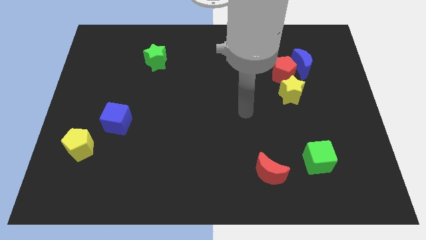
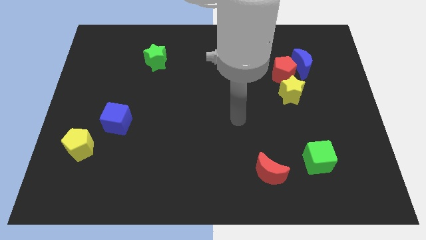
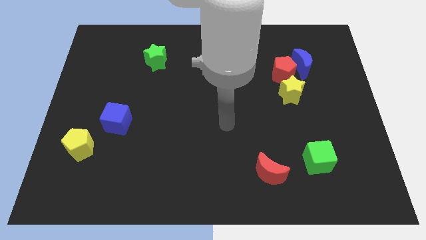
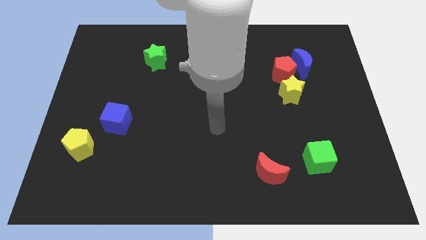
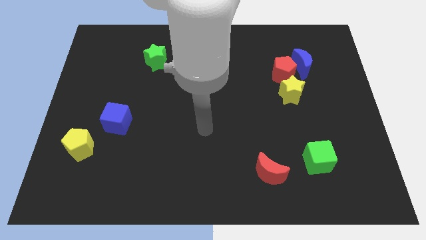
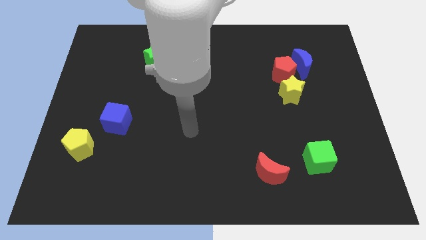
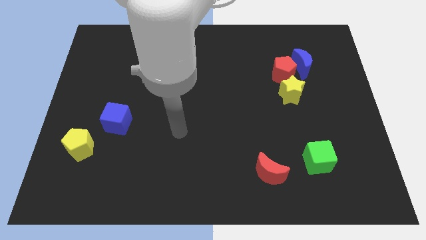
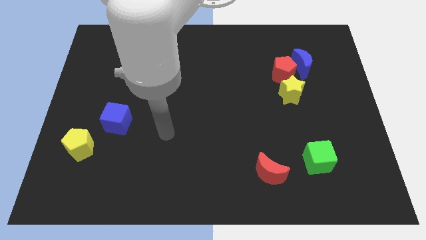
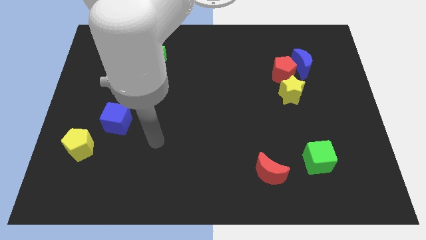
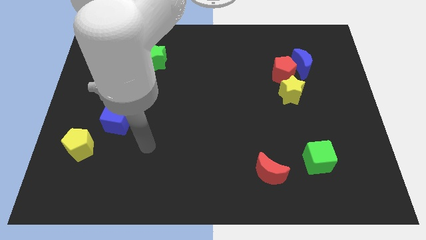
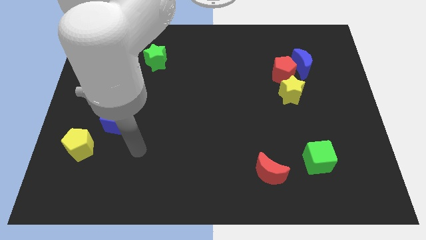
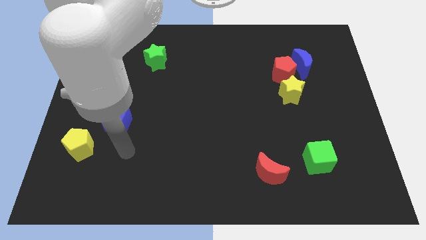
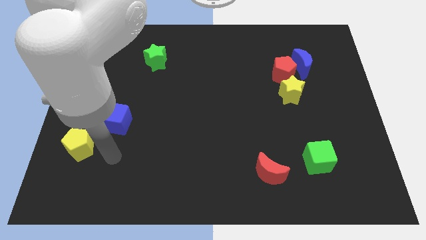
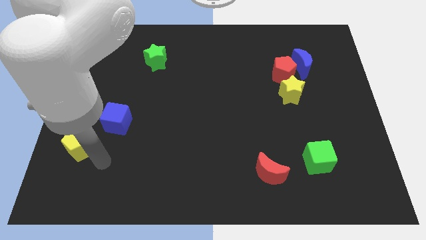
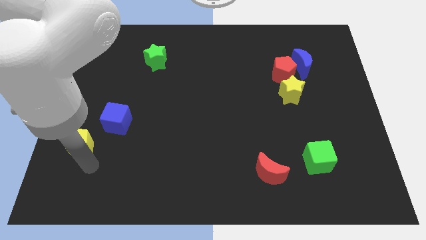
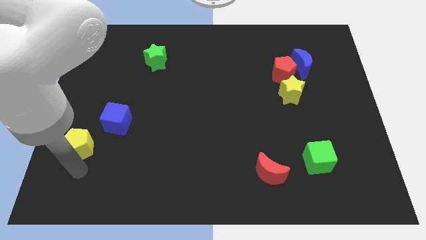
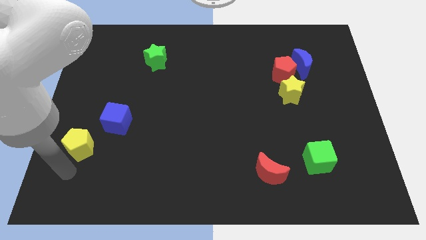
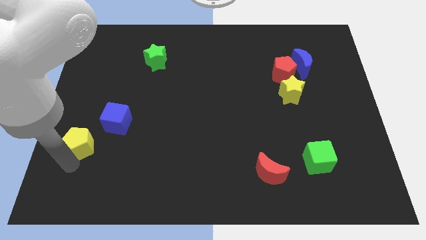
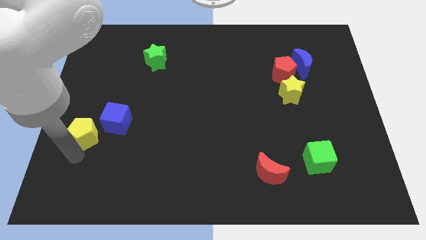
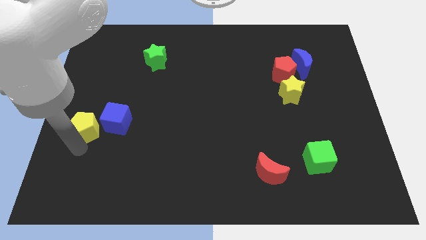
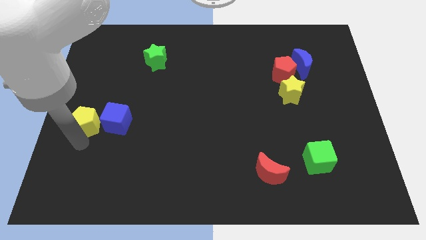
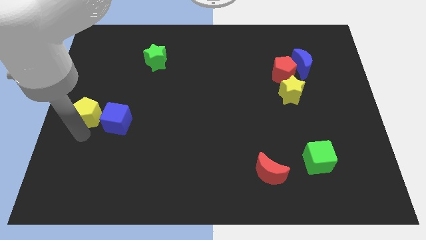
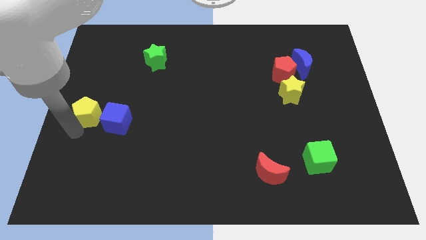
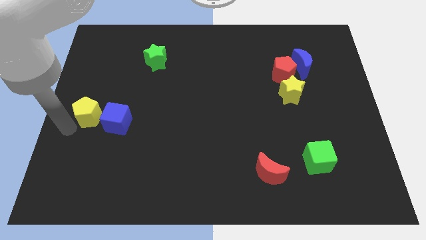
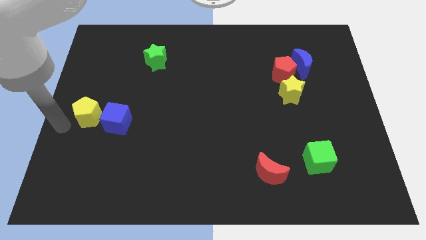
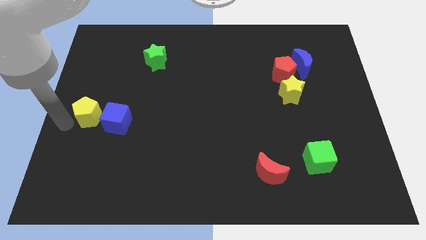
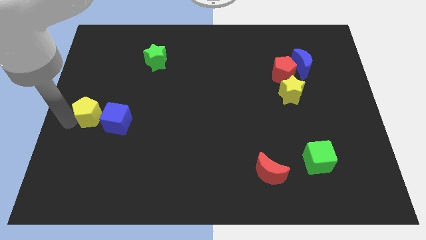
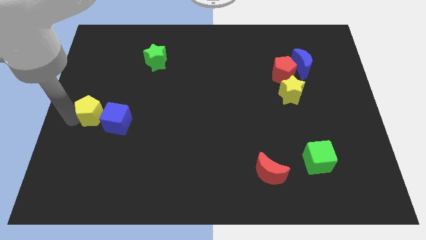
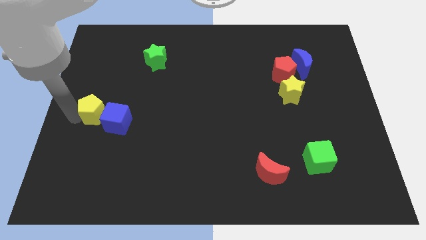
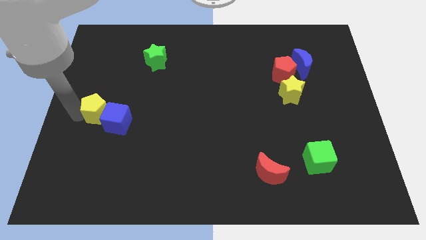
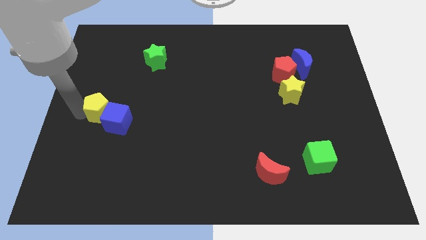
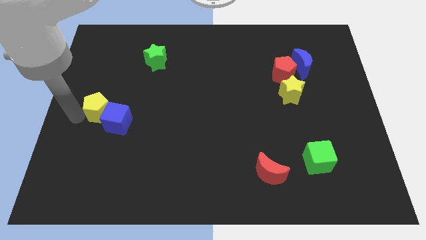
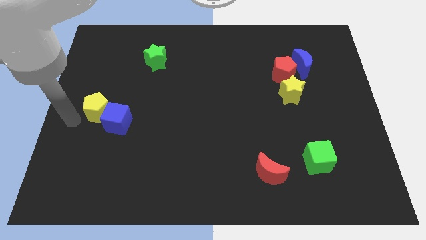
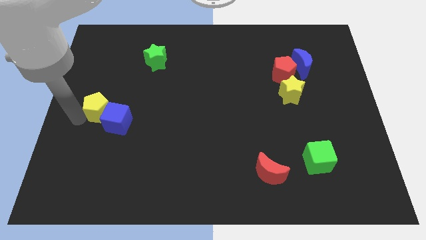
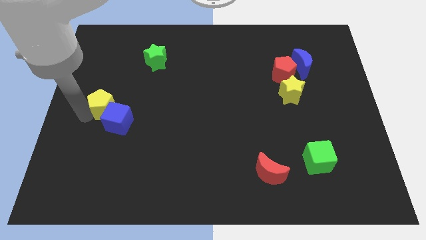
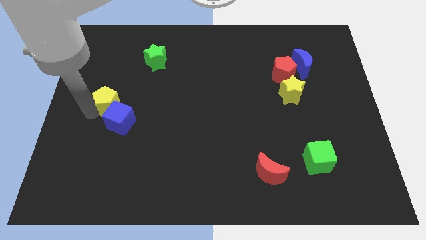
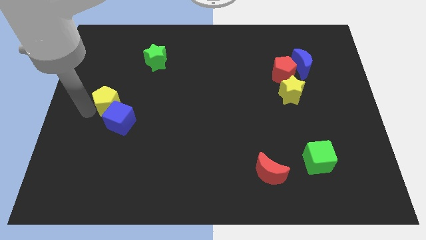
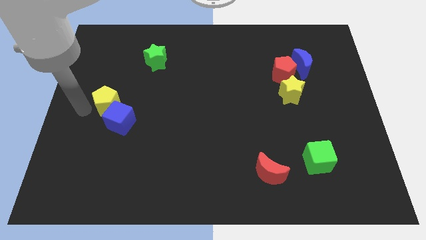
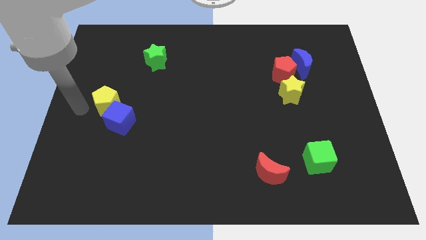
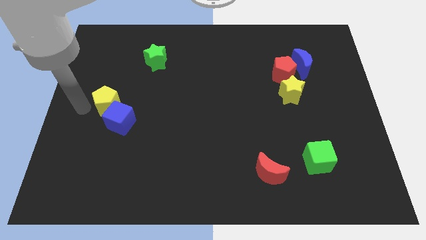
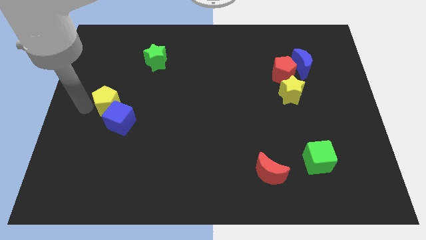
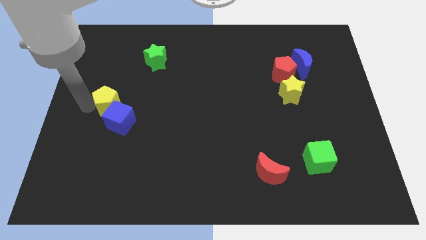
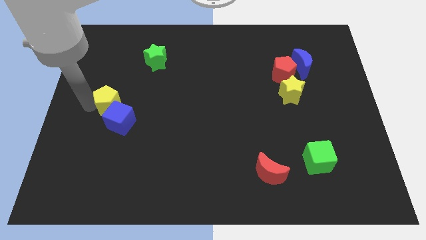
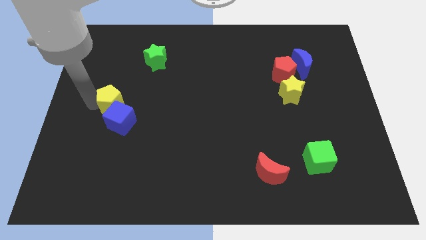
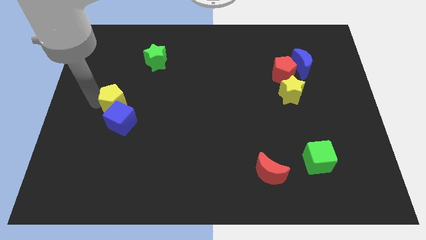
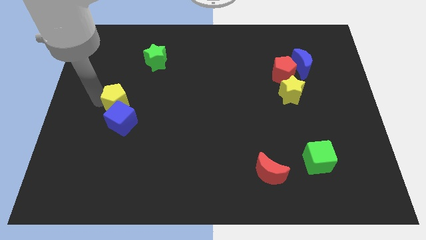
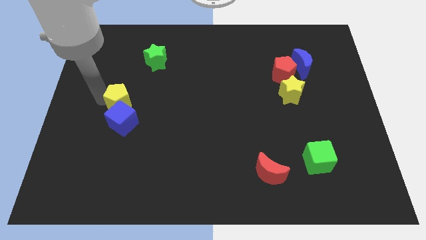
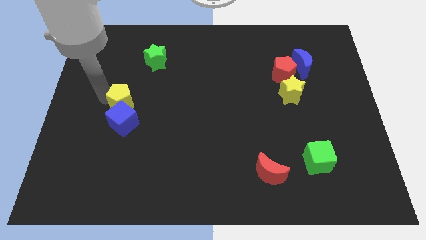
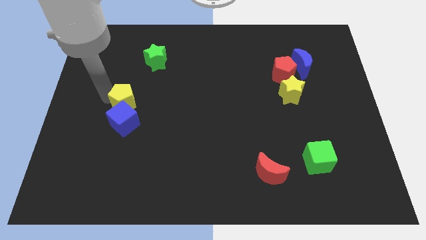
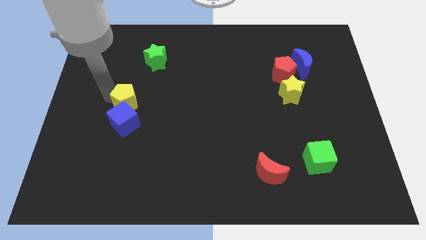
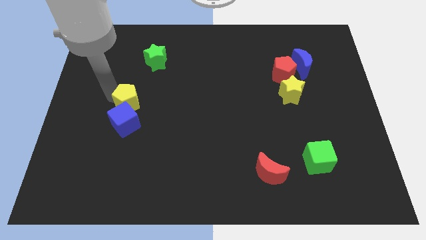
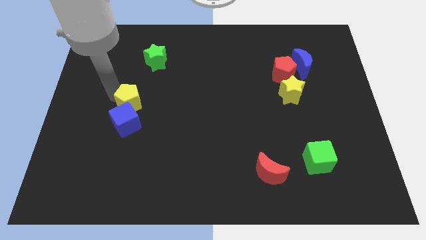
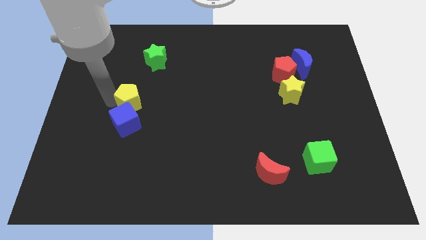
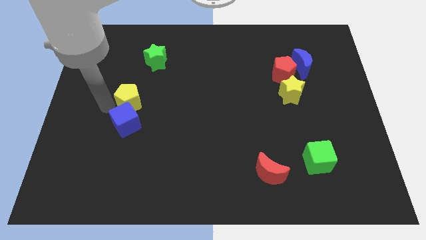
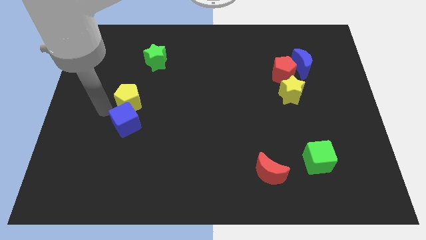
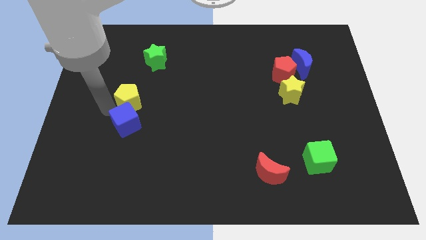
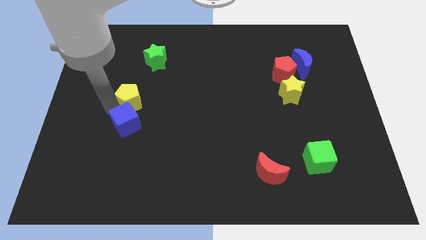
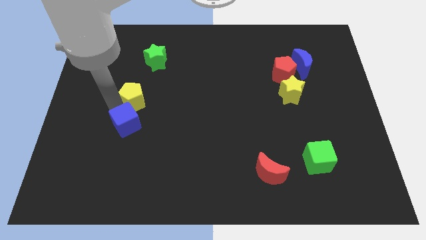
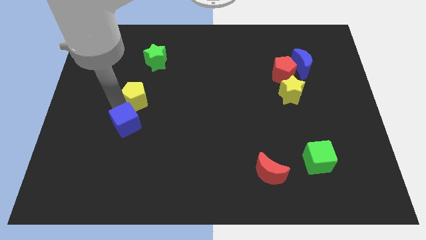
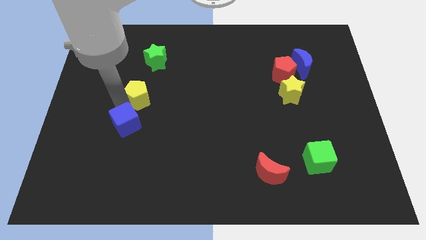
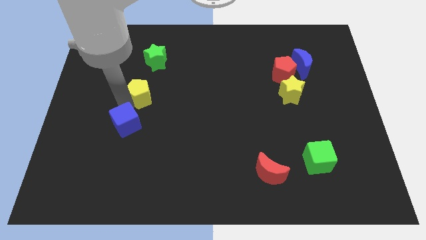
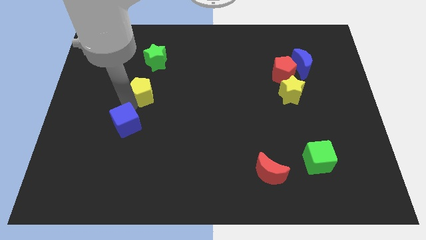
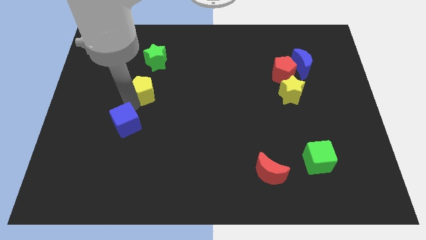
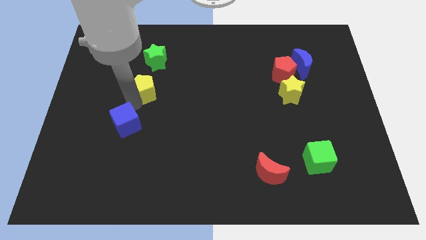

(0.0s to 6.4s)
push the yellow pentagon up and to the right

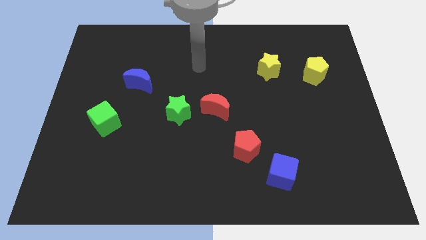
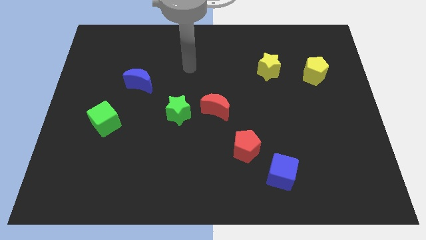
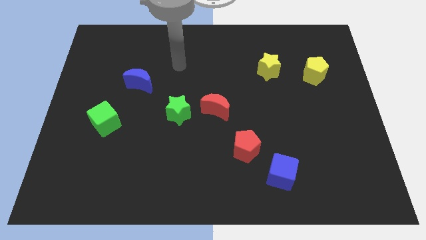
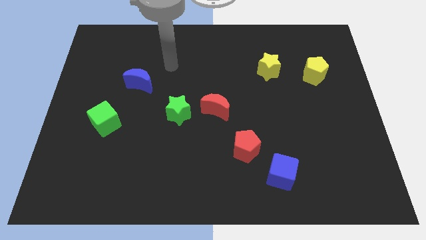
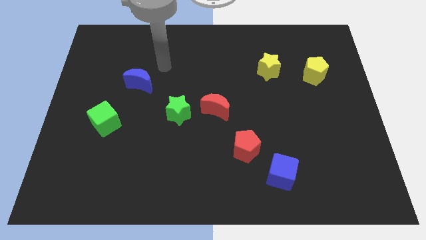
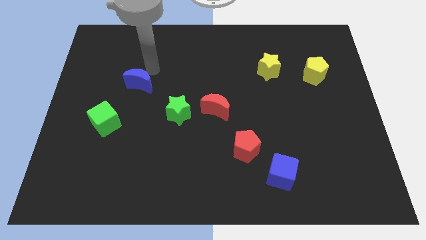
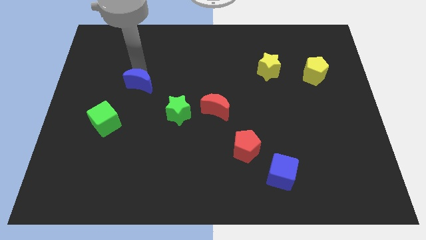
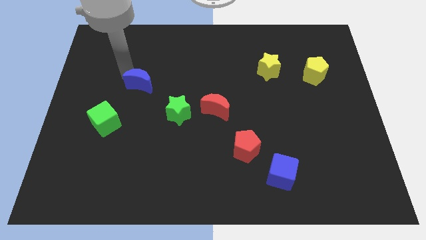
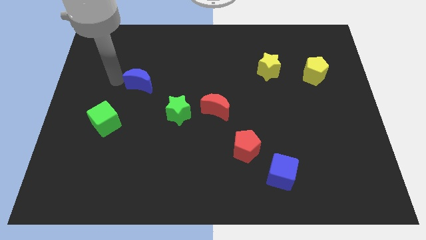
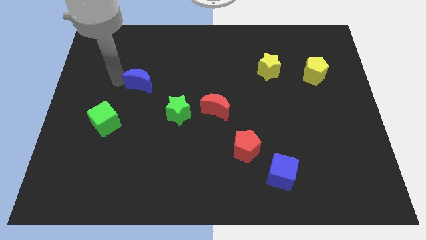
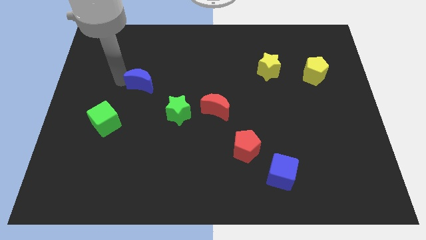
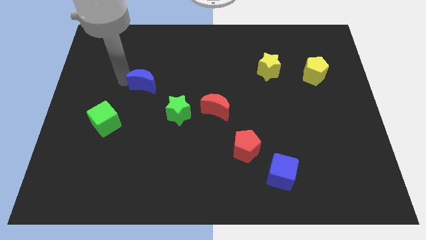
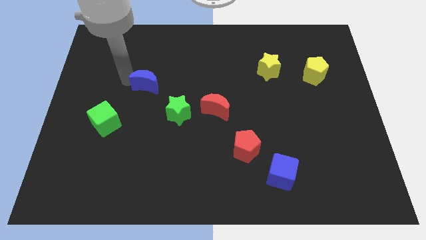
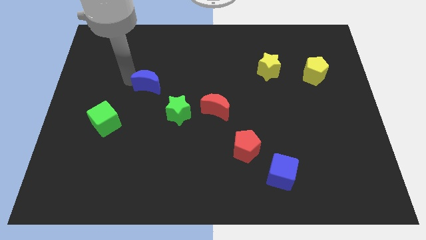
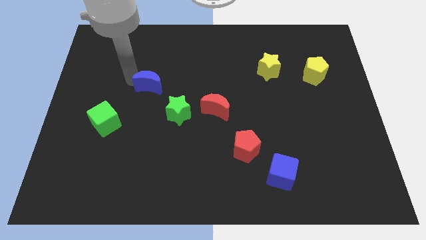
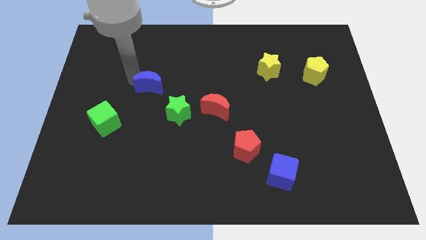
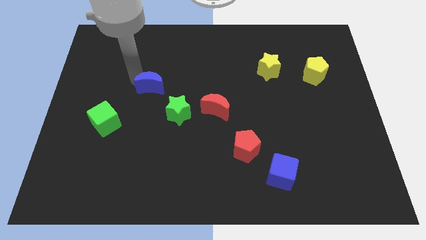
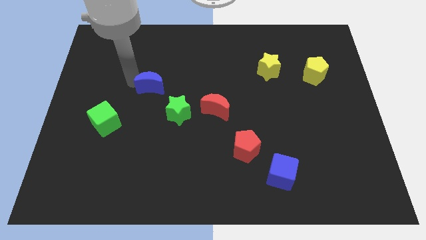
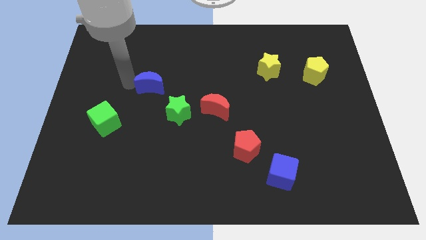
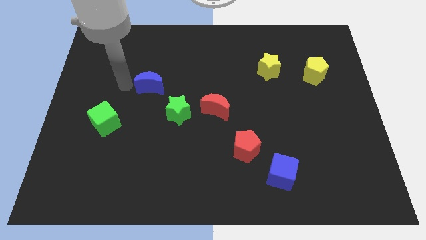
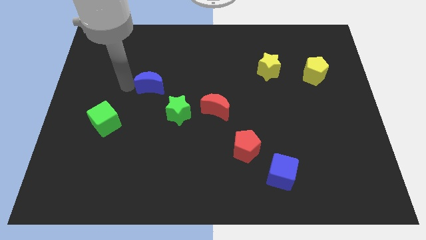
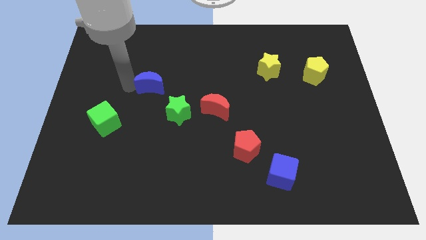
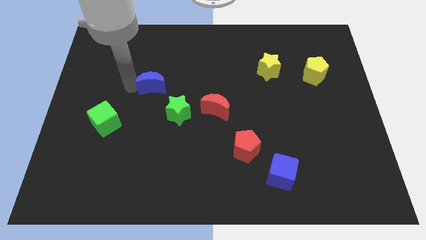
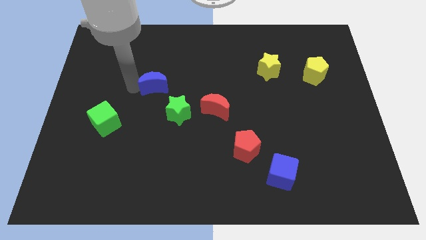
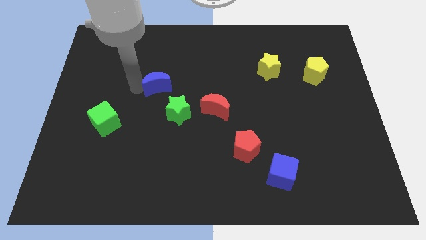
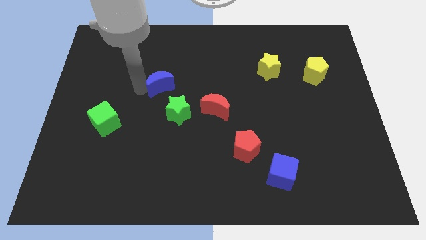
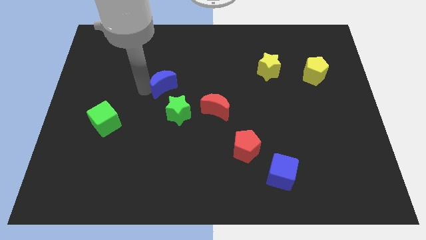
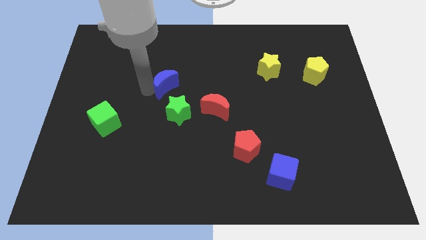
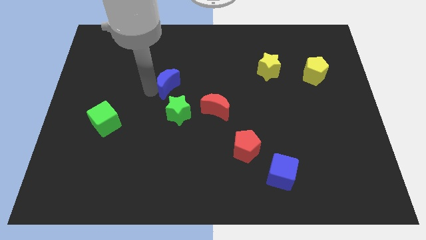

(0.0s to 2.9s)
move the blue moon right slightly
